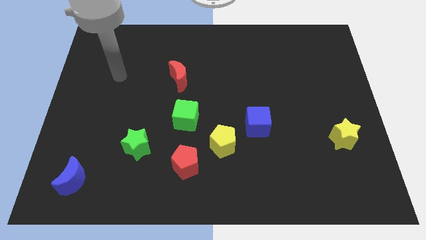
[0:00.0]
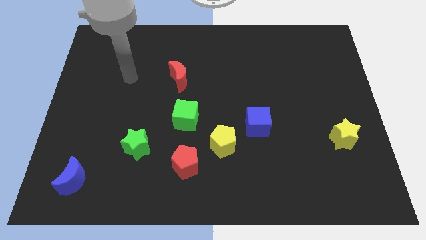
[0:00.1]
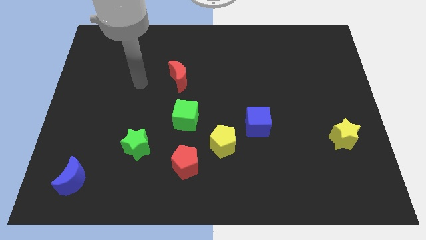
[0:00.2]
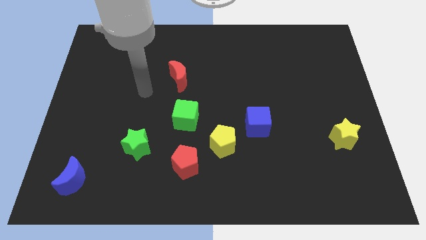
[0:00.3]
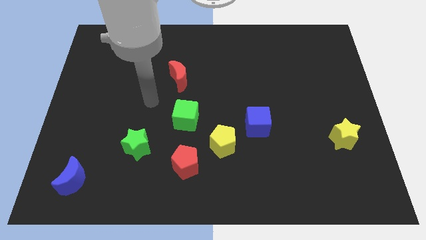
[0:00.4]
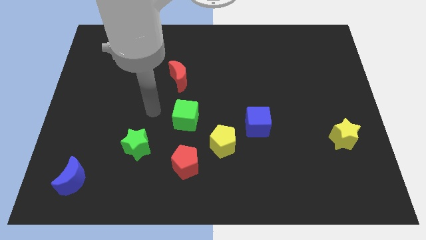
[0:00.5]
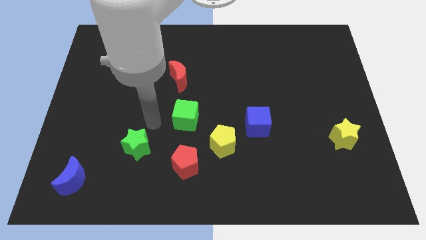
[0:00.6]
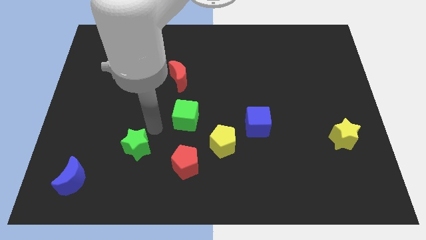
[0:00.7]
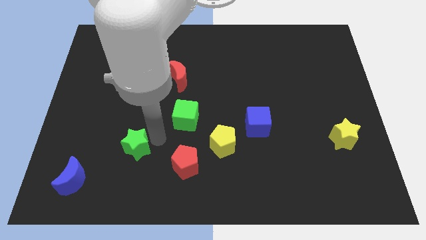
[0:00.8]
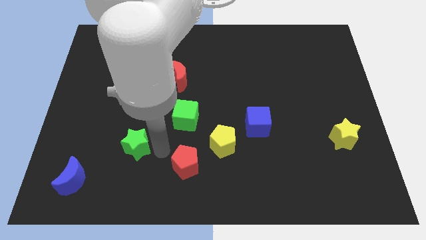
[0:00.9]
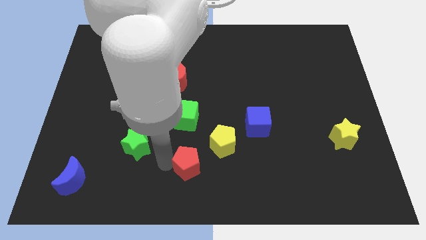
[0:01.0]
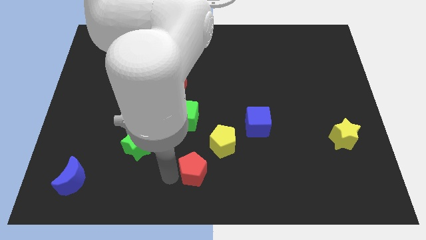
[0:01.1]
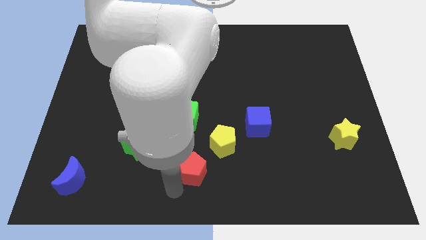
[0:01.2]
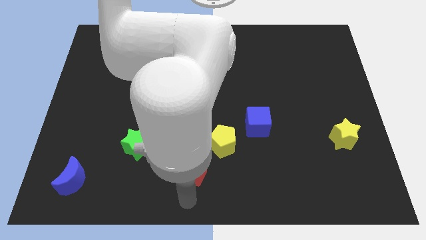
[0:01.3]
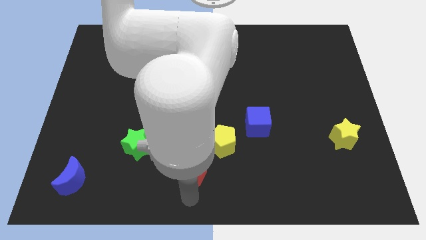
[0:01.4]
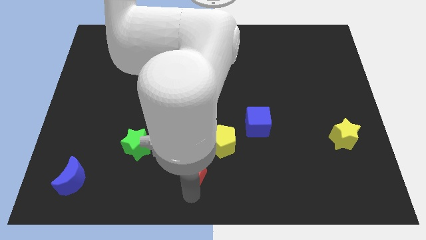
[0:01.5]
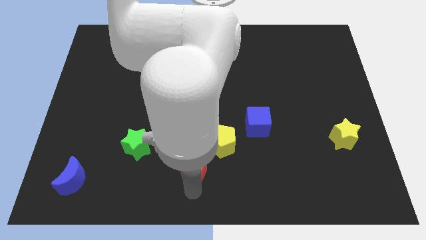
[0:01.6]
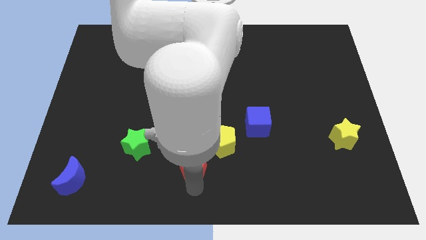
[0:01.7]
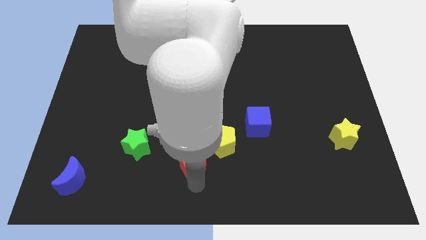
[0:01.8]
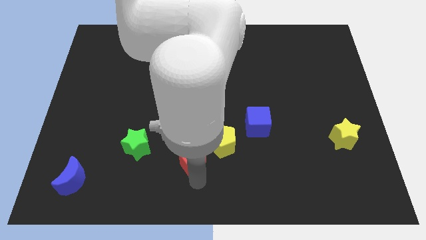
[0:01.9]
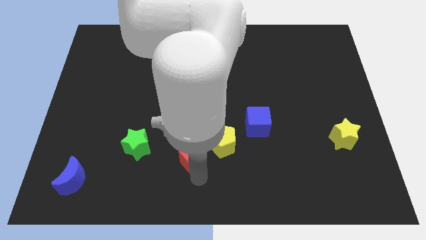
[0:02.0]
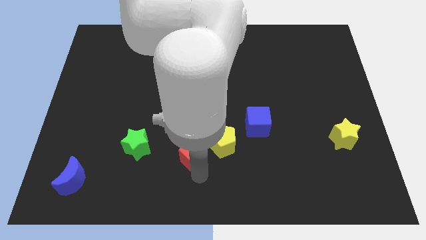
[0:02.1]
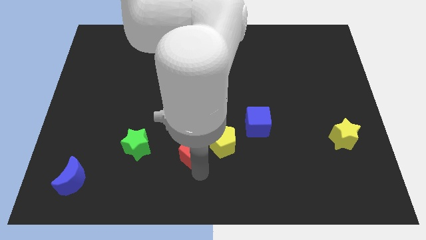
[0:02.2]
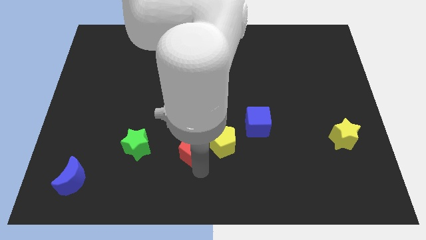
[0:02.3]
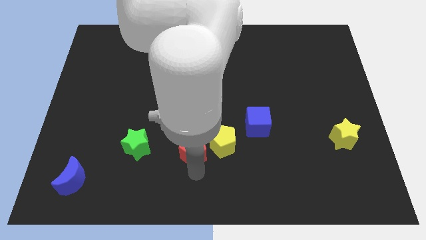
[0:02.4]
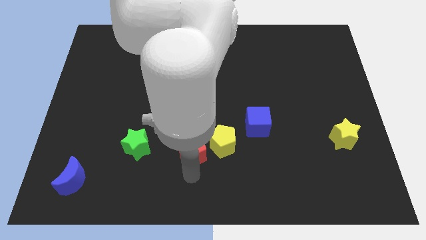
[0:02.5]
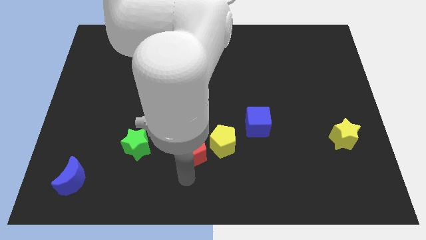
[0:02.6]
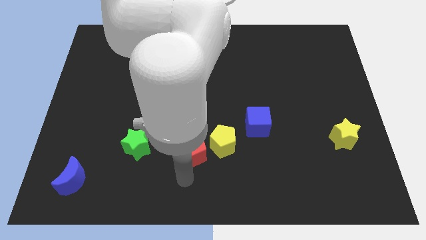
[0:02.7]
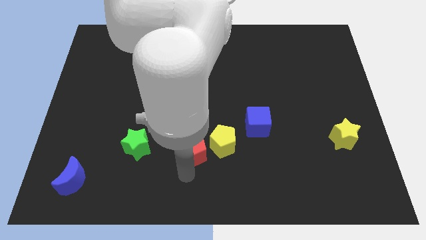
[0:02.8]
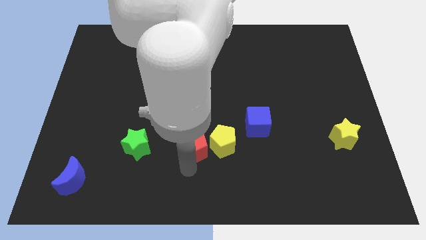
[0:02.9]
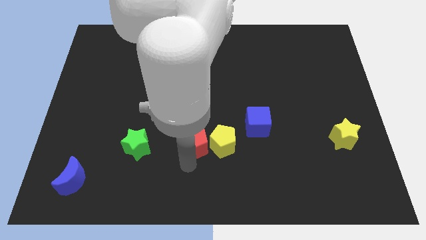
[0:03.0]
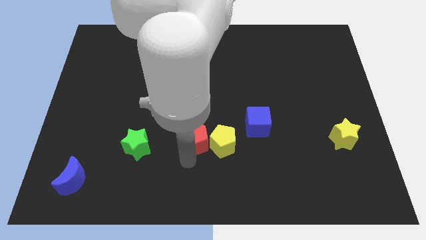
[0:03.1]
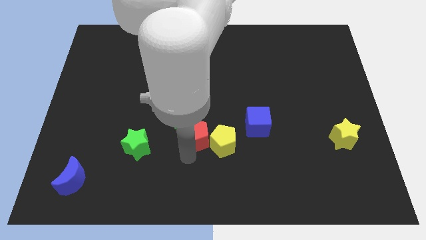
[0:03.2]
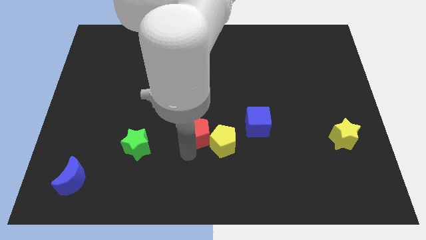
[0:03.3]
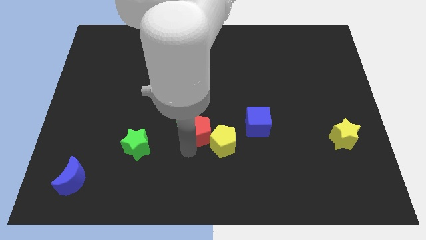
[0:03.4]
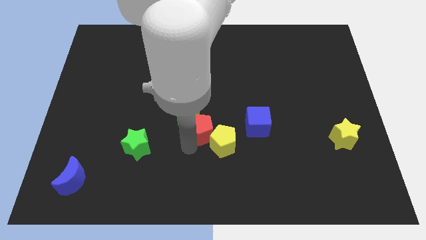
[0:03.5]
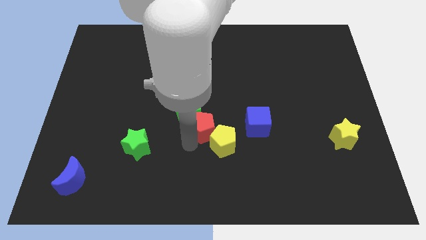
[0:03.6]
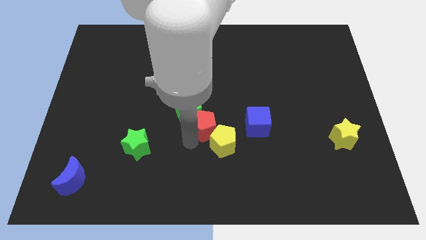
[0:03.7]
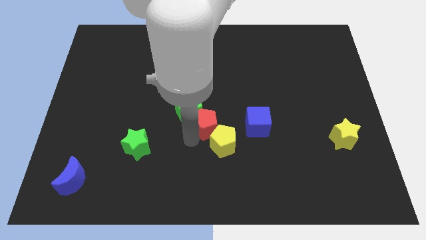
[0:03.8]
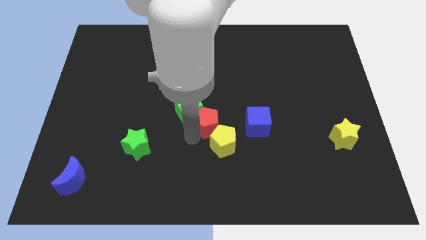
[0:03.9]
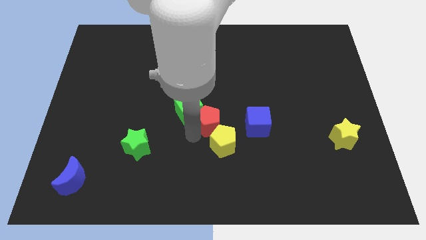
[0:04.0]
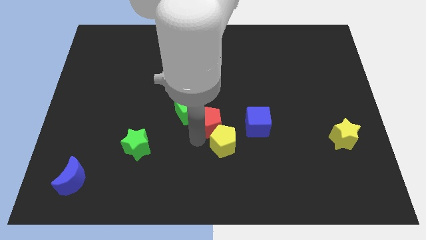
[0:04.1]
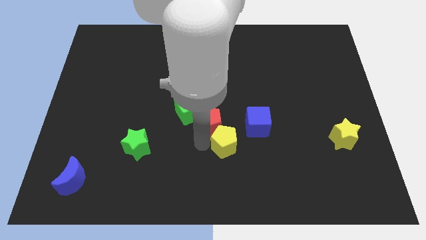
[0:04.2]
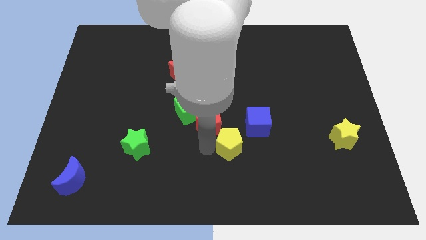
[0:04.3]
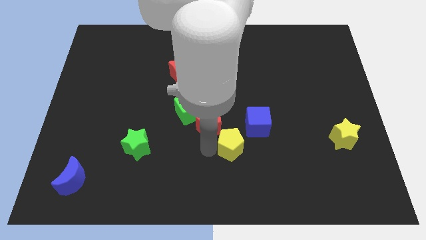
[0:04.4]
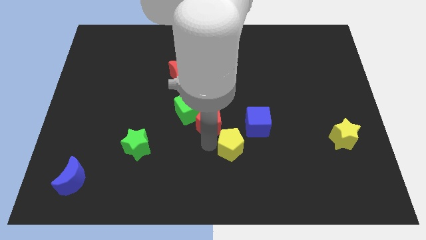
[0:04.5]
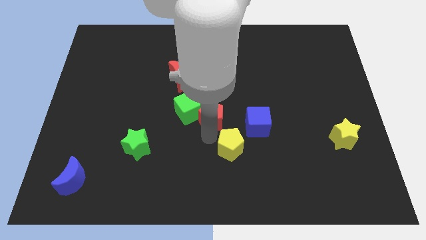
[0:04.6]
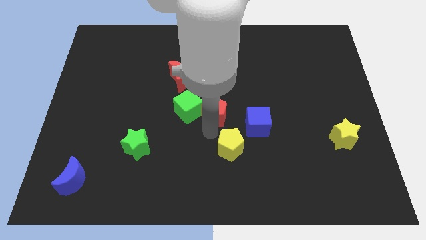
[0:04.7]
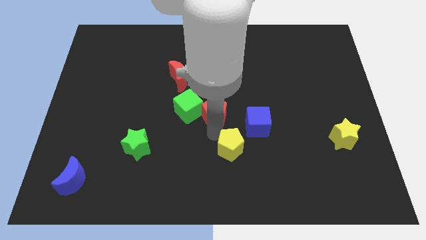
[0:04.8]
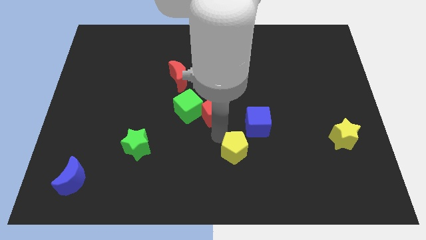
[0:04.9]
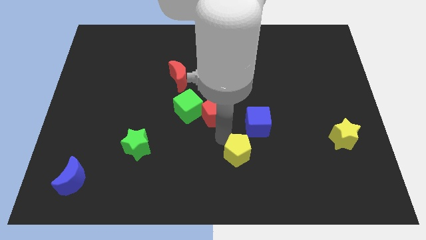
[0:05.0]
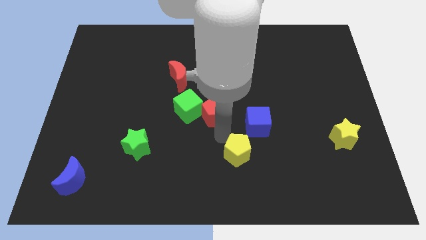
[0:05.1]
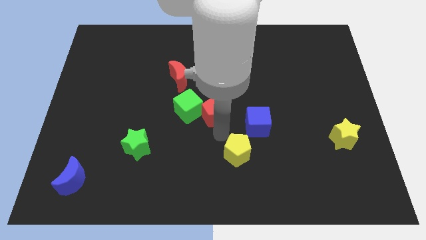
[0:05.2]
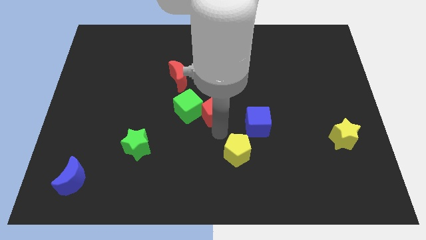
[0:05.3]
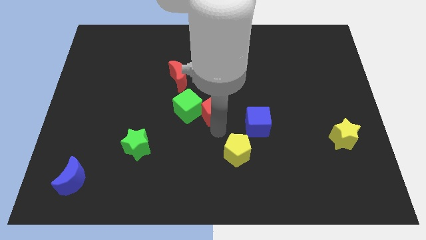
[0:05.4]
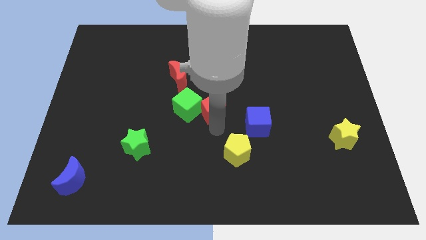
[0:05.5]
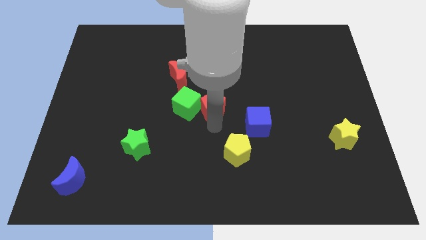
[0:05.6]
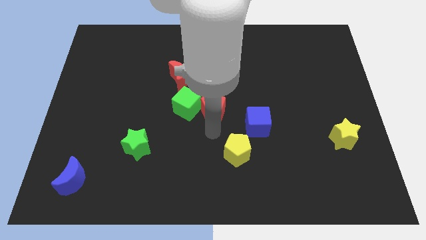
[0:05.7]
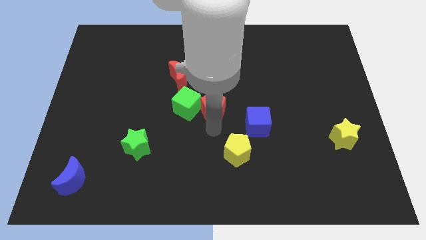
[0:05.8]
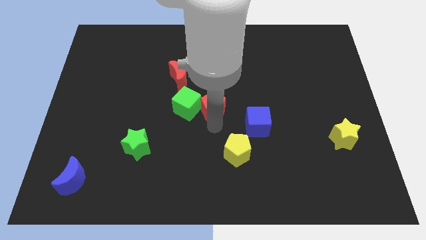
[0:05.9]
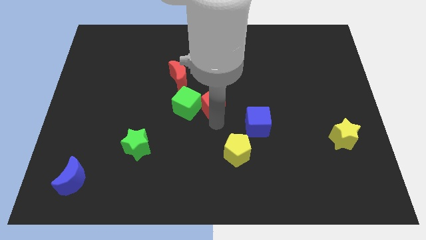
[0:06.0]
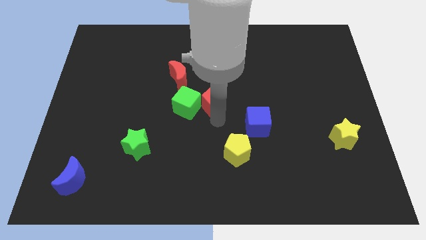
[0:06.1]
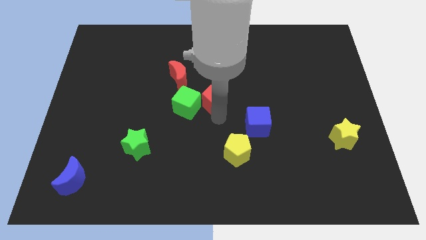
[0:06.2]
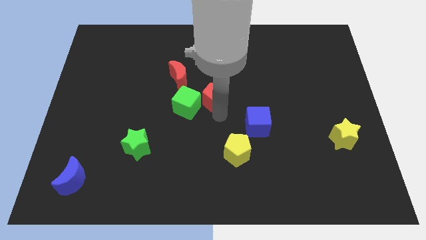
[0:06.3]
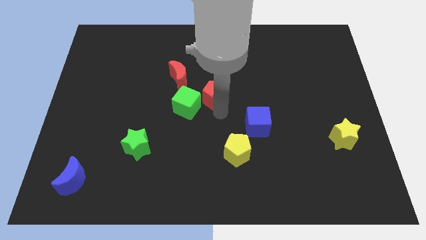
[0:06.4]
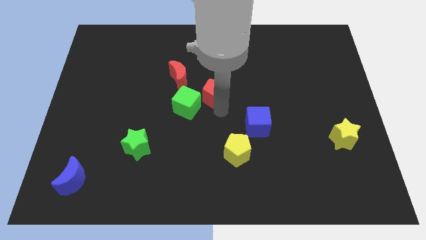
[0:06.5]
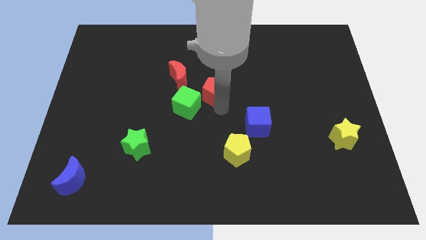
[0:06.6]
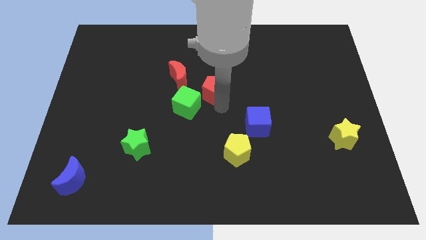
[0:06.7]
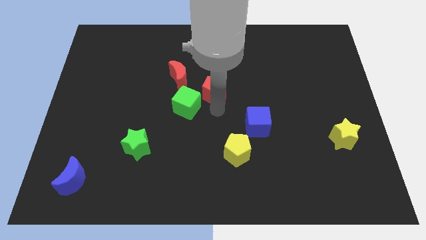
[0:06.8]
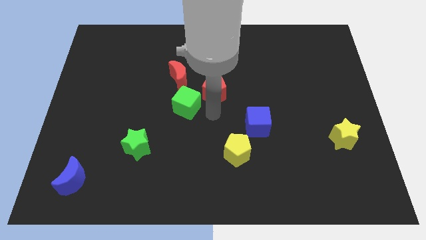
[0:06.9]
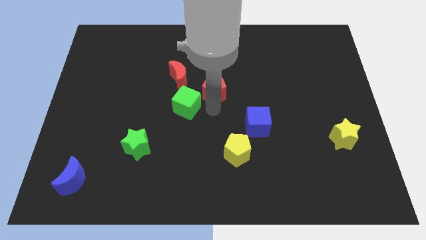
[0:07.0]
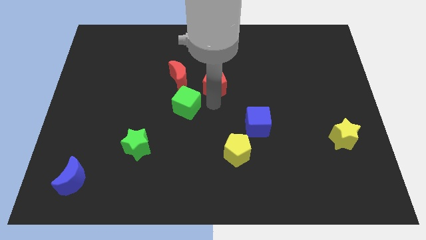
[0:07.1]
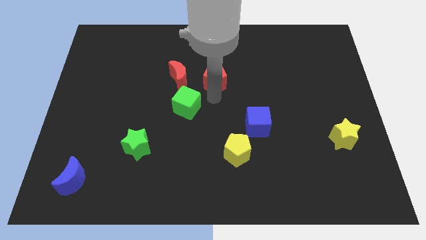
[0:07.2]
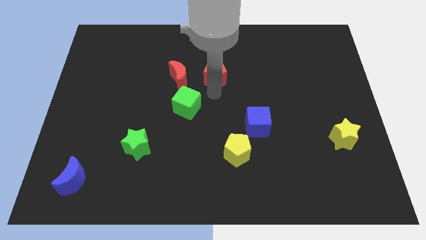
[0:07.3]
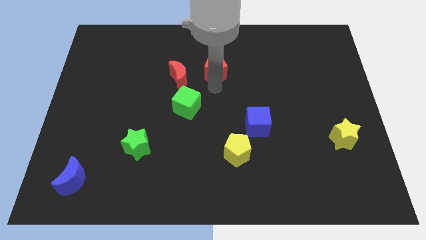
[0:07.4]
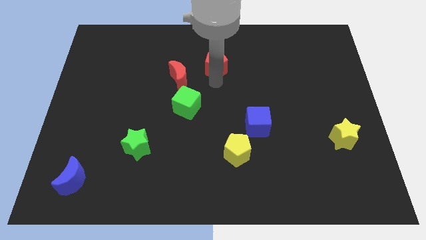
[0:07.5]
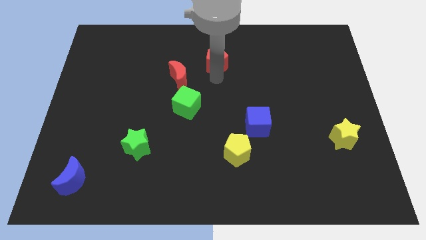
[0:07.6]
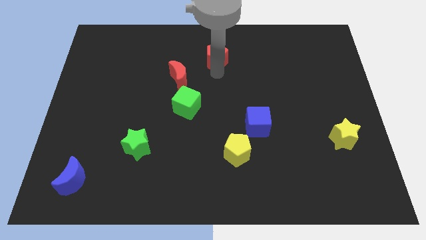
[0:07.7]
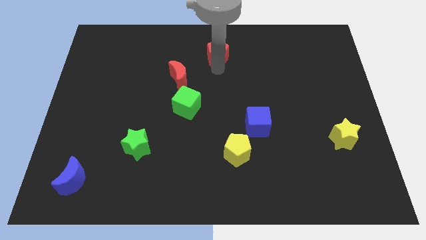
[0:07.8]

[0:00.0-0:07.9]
put the red pentagon to the towards your base
